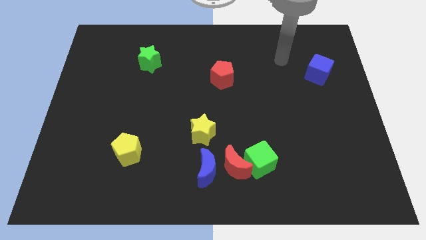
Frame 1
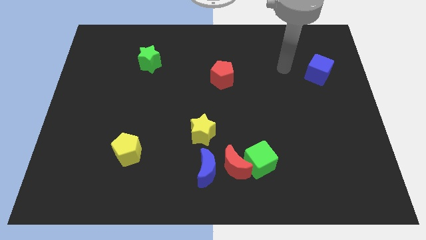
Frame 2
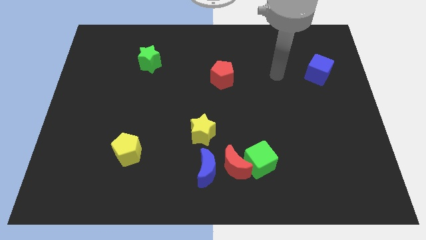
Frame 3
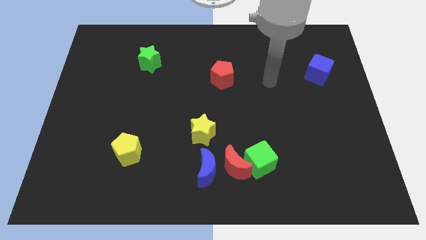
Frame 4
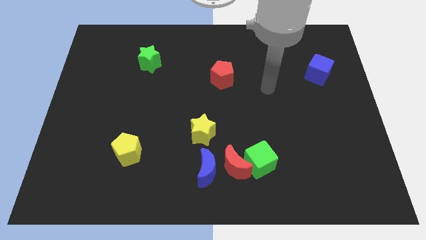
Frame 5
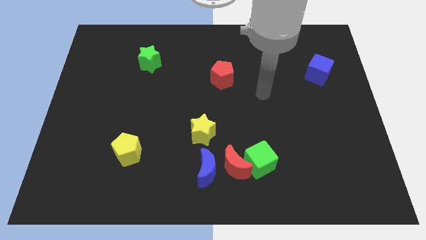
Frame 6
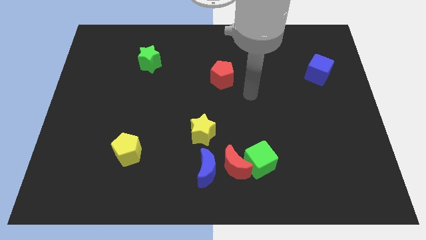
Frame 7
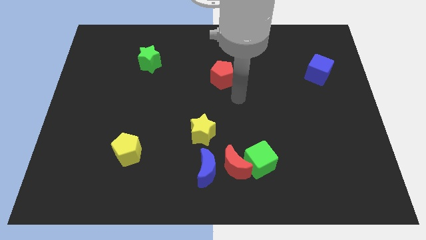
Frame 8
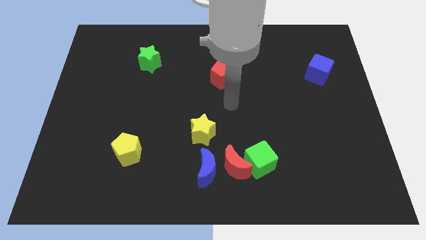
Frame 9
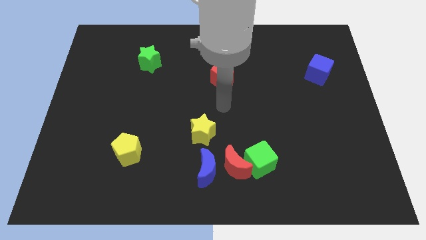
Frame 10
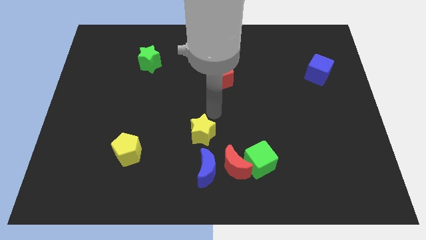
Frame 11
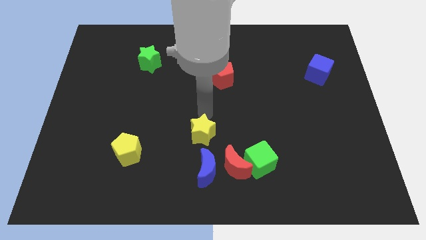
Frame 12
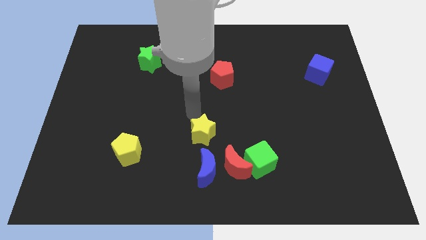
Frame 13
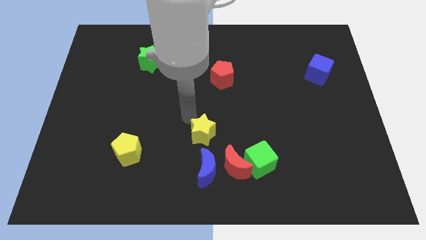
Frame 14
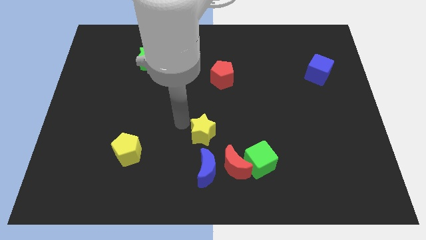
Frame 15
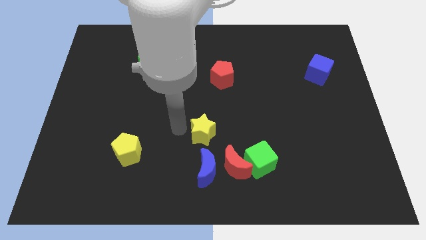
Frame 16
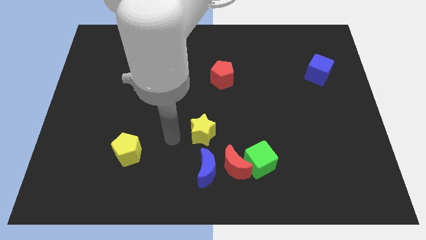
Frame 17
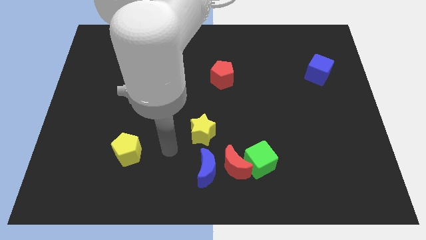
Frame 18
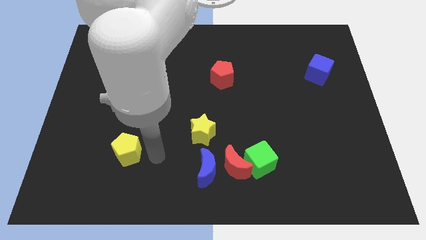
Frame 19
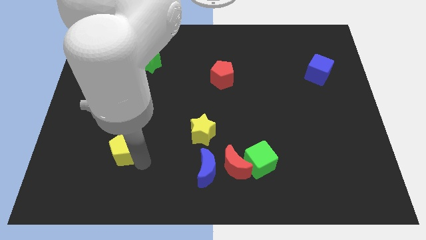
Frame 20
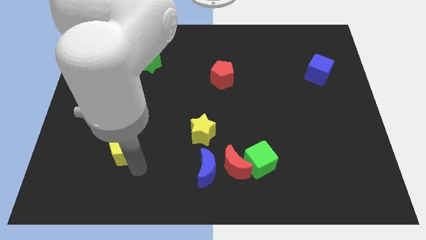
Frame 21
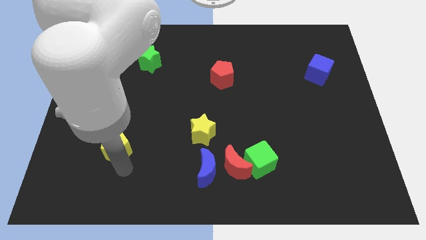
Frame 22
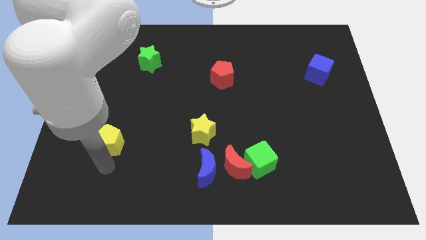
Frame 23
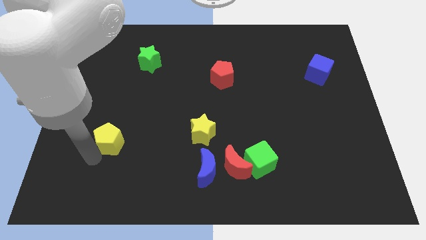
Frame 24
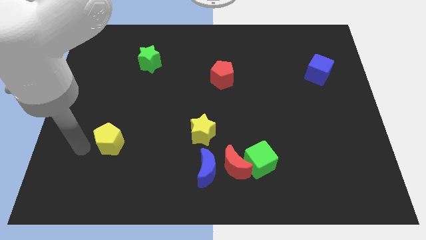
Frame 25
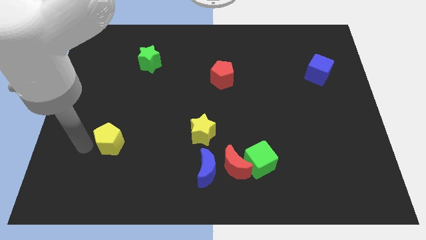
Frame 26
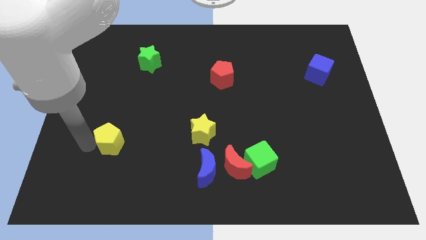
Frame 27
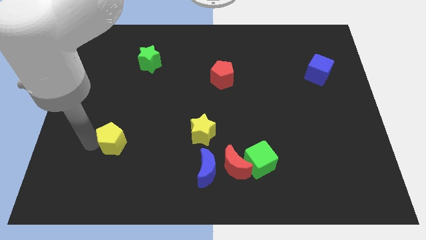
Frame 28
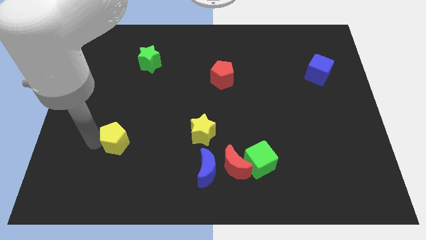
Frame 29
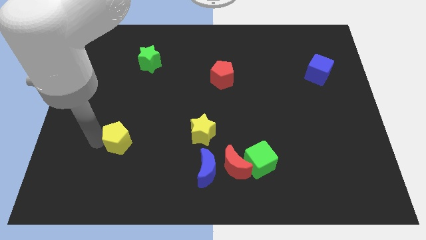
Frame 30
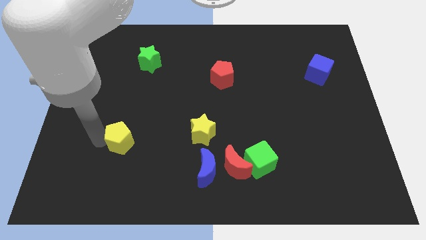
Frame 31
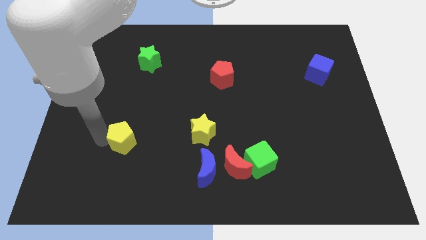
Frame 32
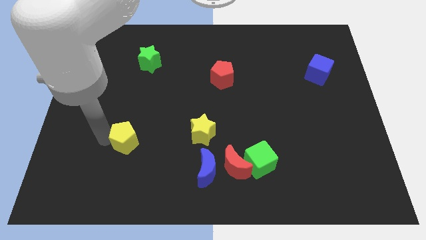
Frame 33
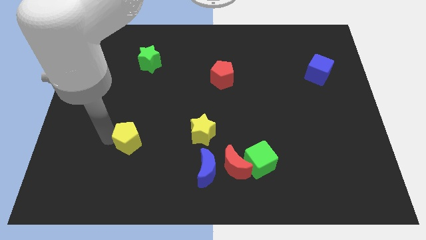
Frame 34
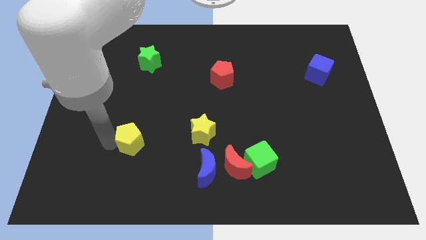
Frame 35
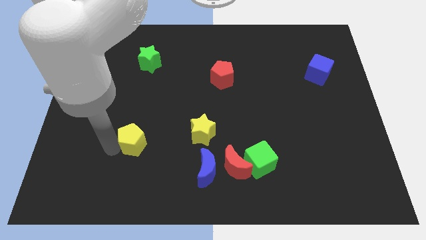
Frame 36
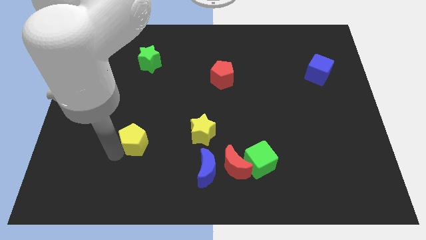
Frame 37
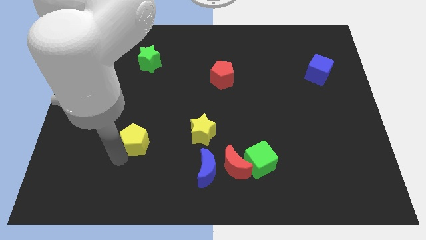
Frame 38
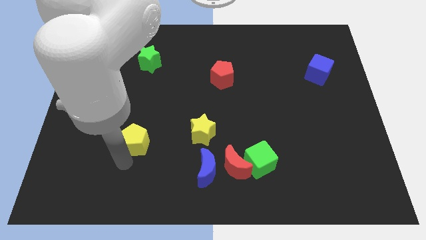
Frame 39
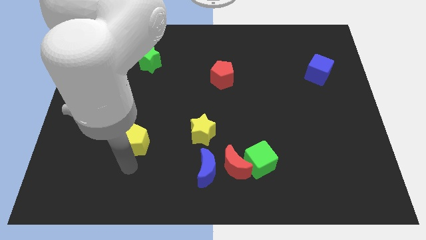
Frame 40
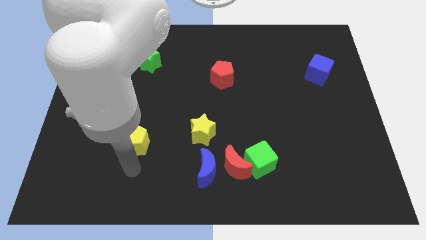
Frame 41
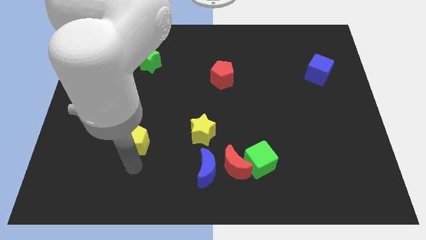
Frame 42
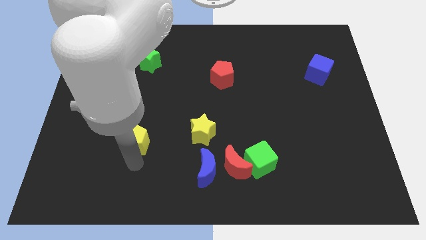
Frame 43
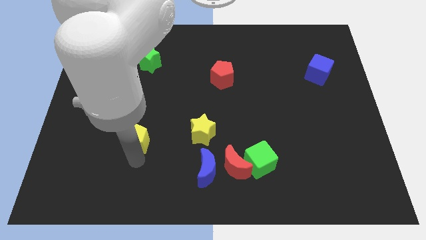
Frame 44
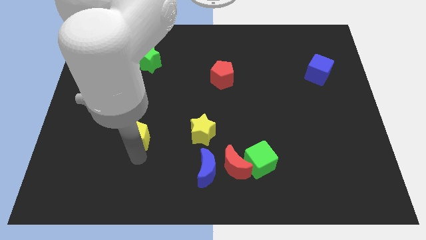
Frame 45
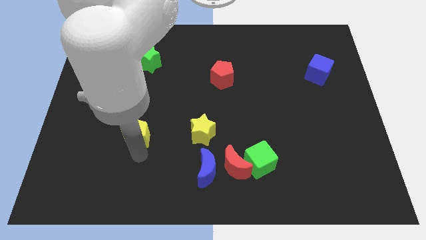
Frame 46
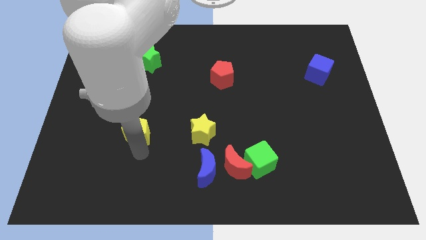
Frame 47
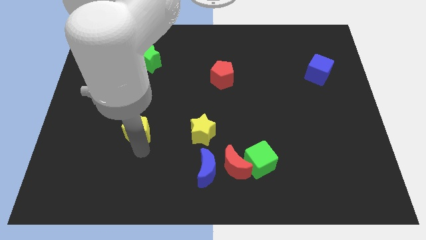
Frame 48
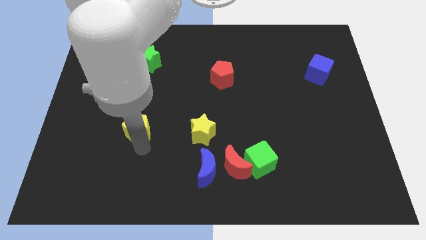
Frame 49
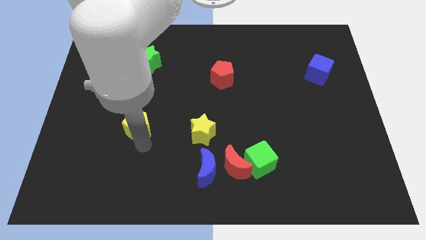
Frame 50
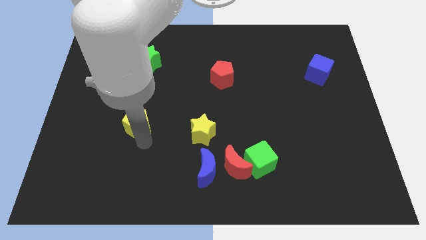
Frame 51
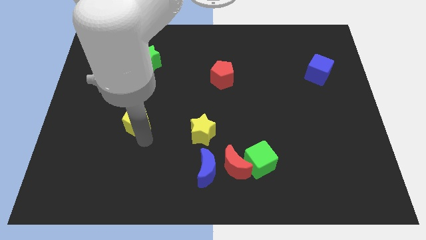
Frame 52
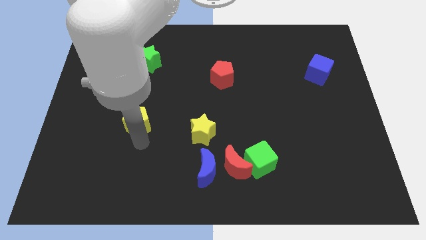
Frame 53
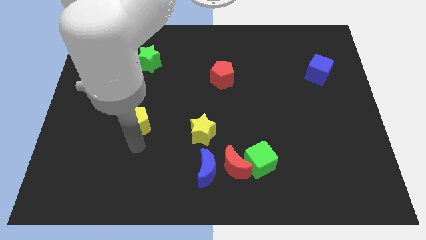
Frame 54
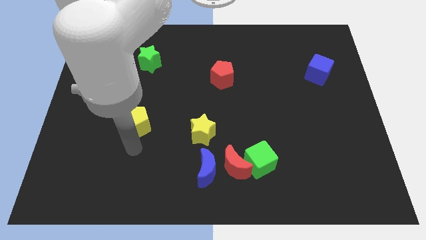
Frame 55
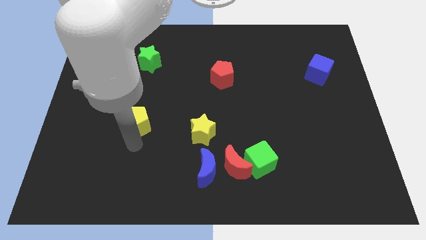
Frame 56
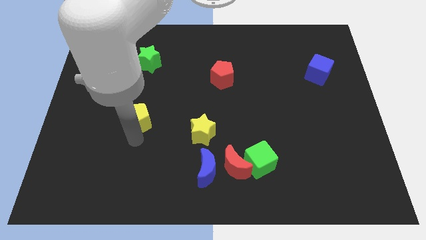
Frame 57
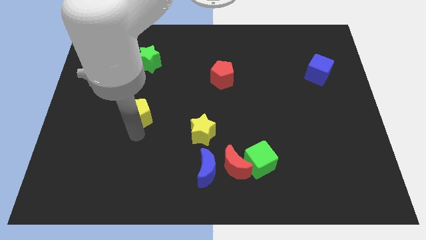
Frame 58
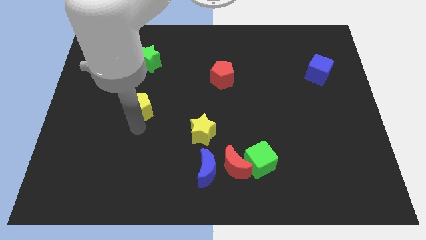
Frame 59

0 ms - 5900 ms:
slide the yellow pentagon to the bottom side of the green star

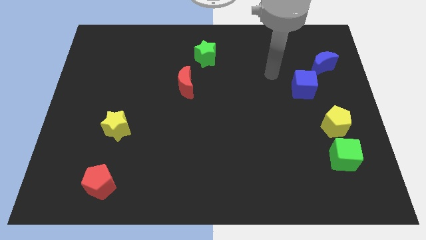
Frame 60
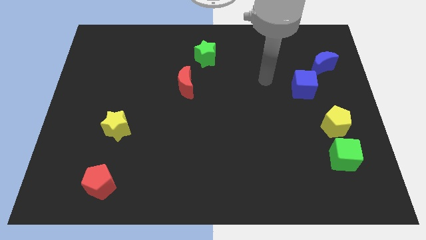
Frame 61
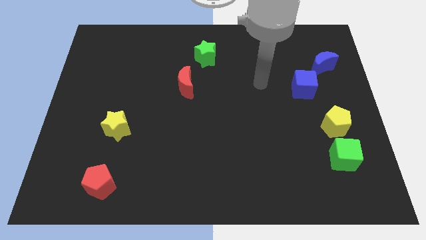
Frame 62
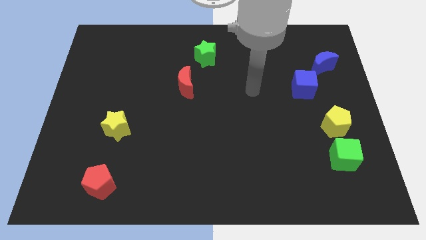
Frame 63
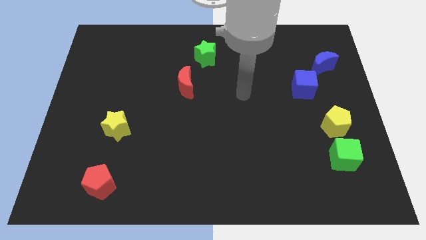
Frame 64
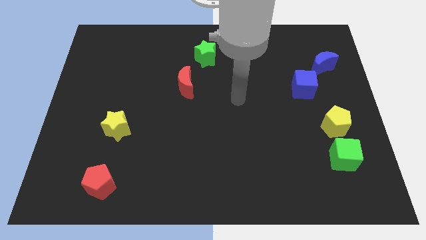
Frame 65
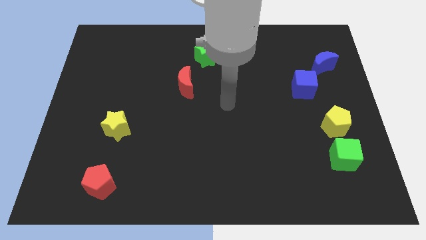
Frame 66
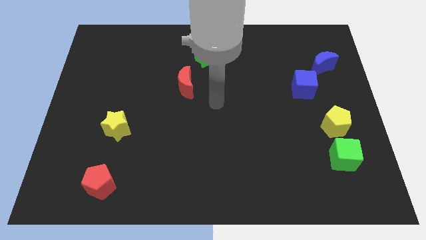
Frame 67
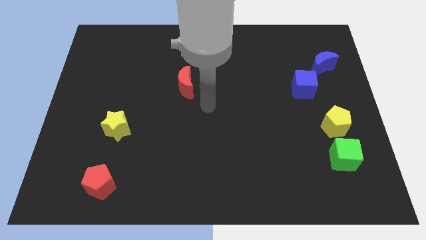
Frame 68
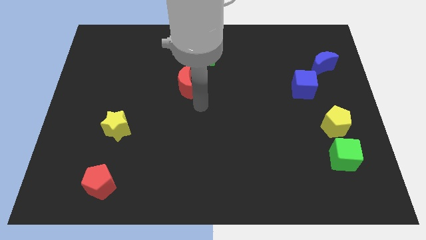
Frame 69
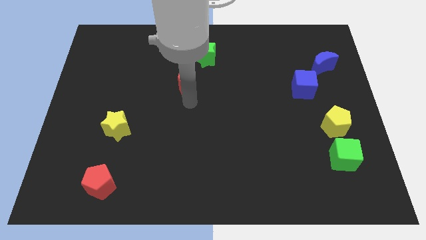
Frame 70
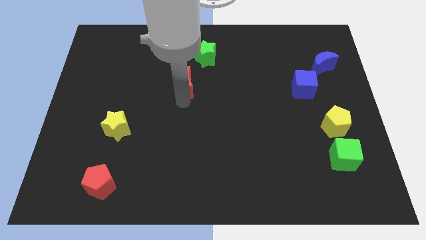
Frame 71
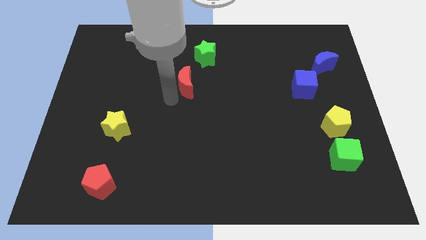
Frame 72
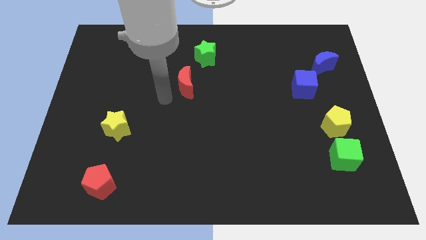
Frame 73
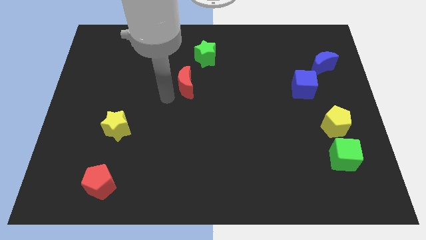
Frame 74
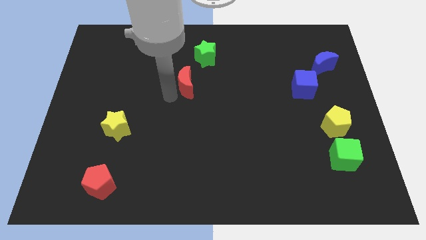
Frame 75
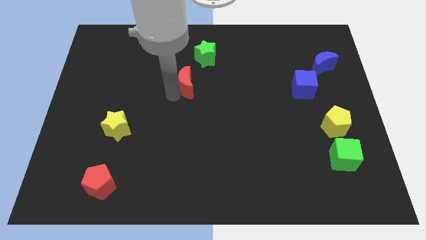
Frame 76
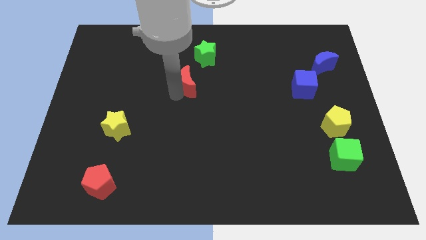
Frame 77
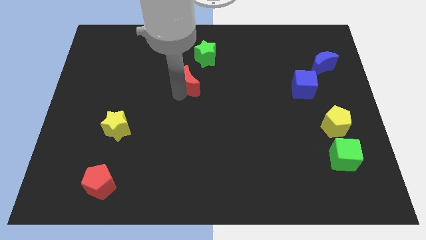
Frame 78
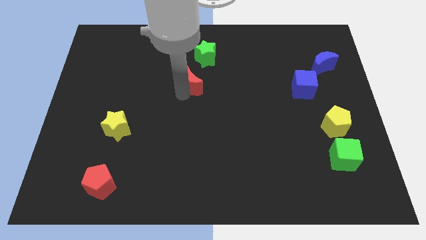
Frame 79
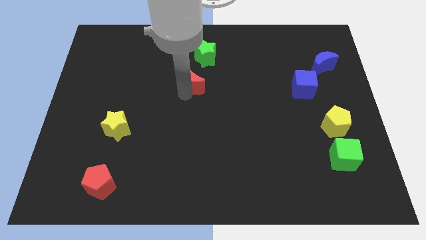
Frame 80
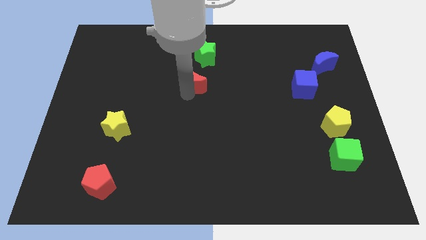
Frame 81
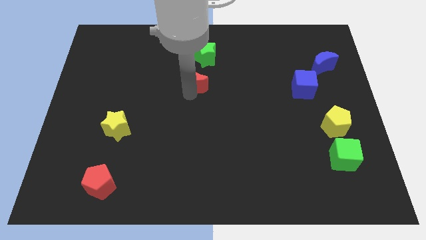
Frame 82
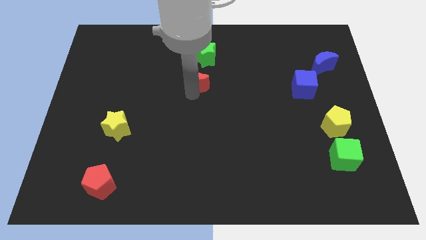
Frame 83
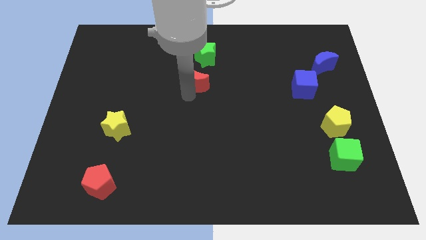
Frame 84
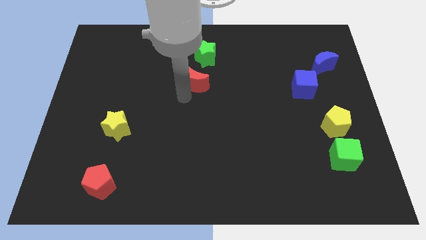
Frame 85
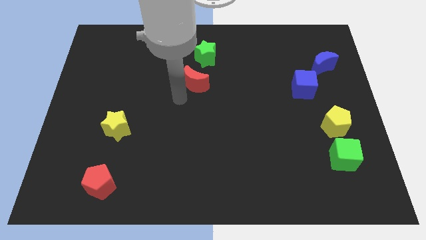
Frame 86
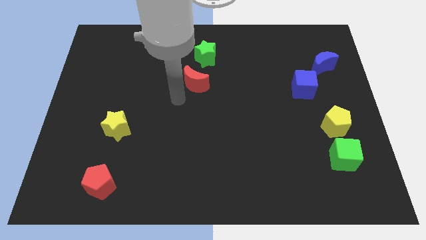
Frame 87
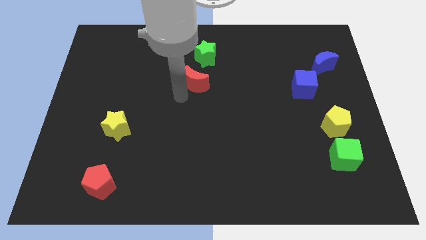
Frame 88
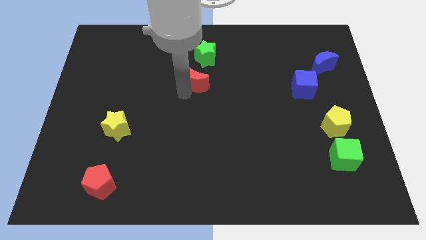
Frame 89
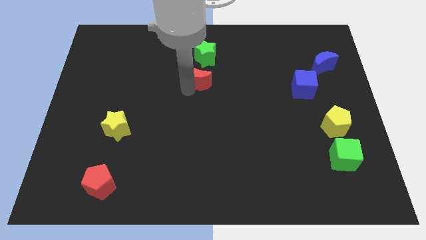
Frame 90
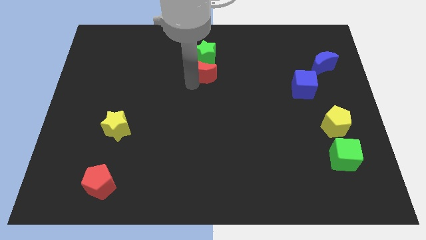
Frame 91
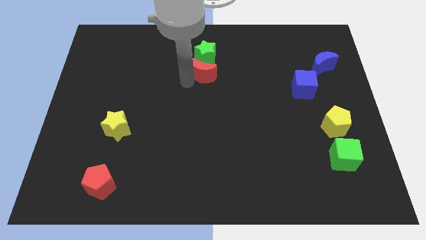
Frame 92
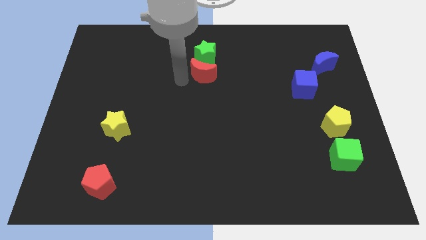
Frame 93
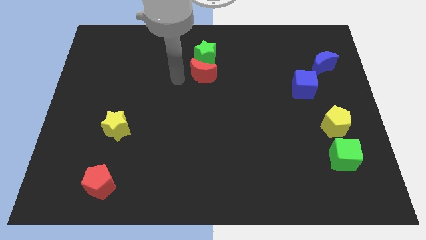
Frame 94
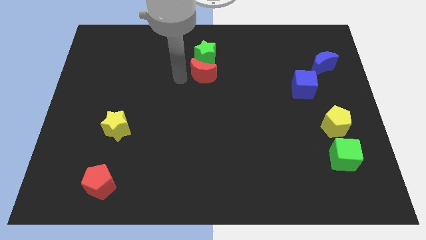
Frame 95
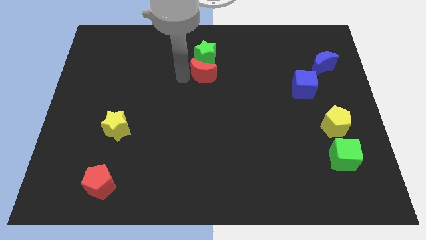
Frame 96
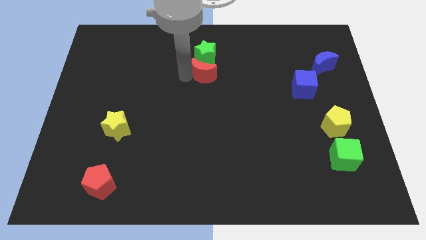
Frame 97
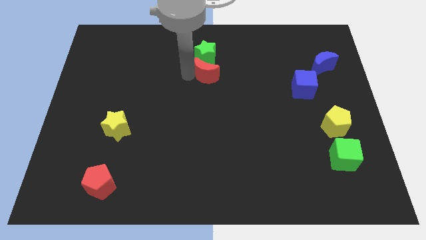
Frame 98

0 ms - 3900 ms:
move the red moon to the bottom right of the green star
